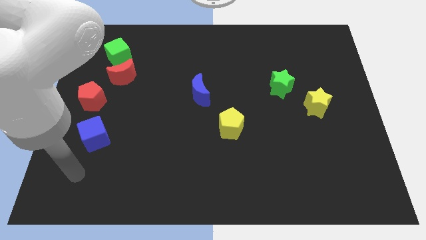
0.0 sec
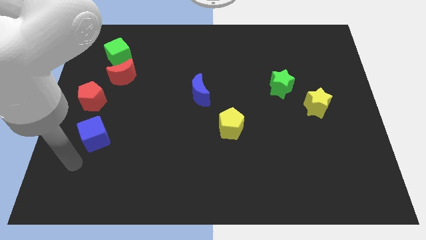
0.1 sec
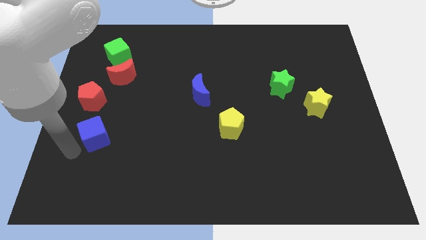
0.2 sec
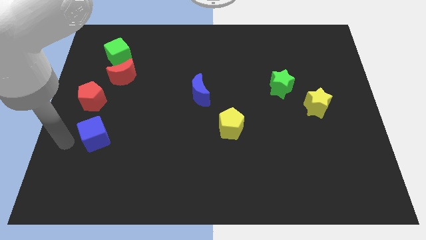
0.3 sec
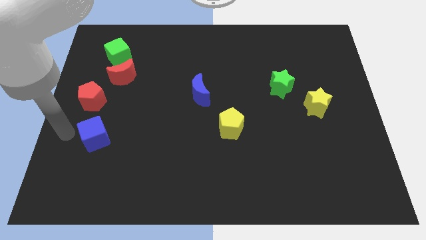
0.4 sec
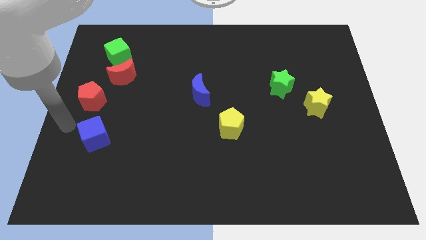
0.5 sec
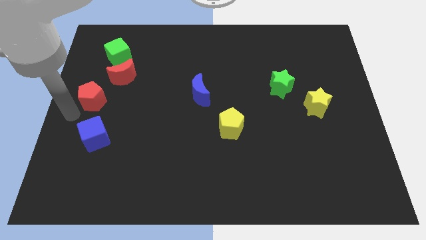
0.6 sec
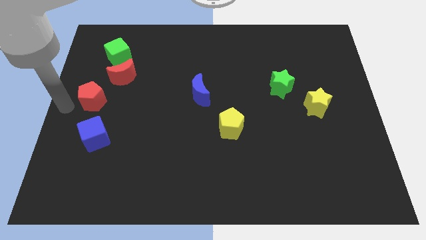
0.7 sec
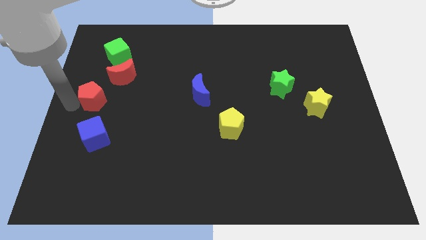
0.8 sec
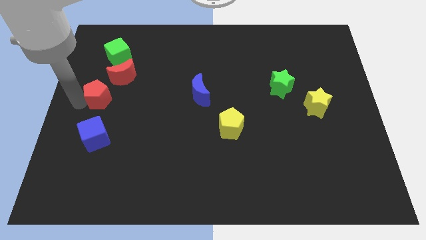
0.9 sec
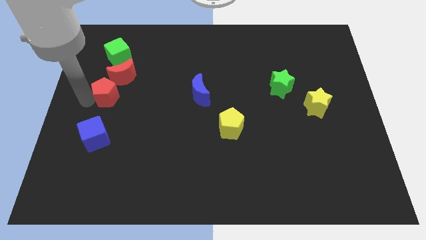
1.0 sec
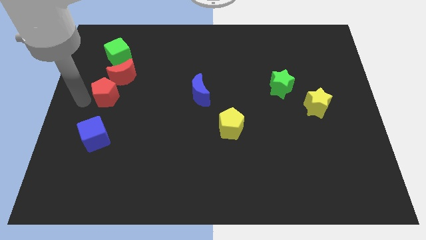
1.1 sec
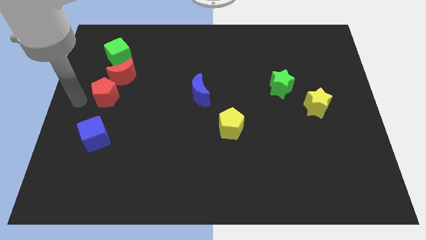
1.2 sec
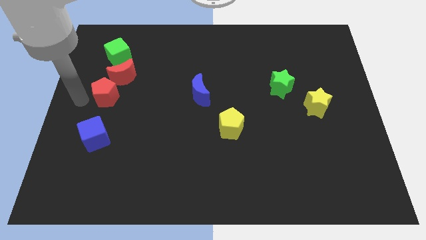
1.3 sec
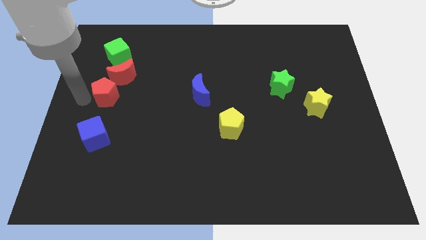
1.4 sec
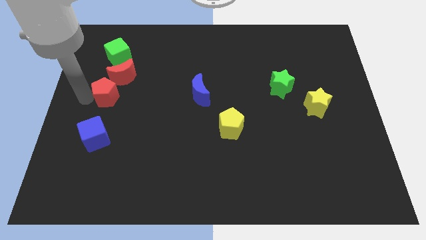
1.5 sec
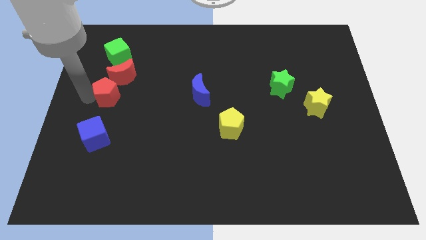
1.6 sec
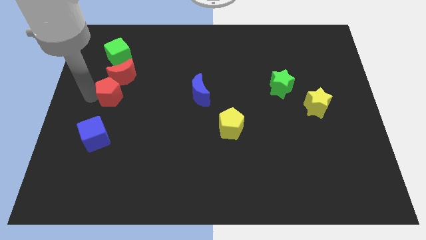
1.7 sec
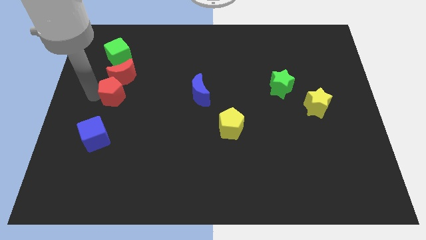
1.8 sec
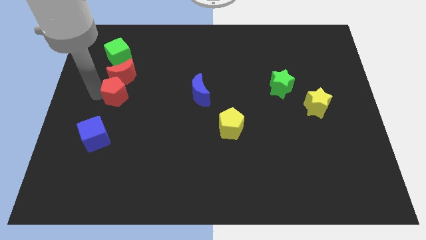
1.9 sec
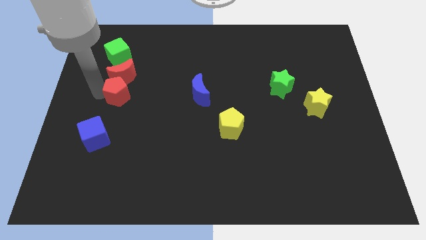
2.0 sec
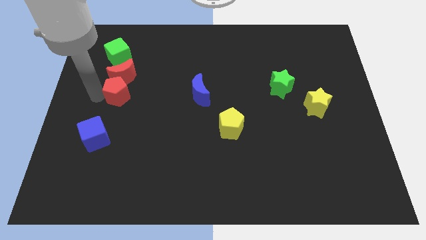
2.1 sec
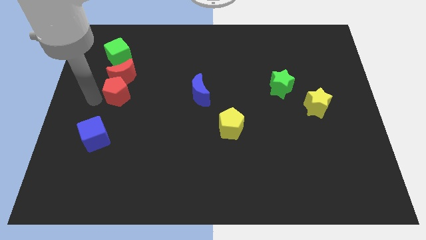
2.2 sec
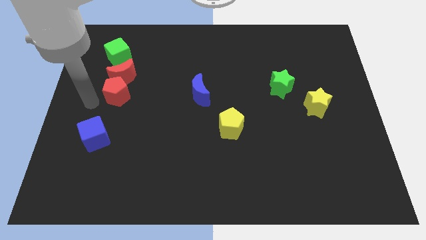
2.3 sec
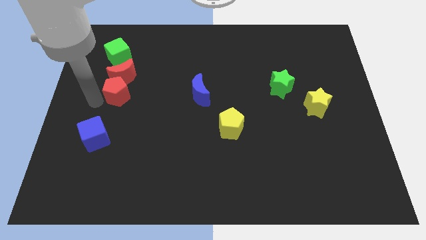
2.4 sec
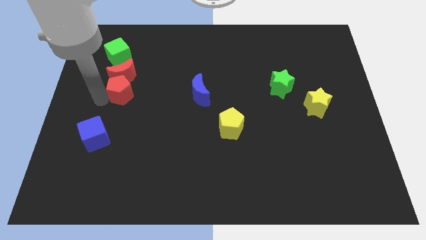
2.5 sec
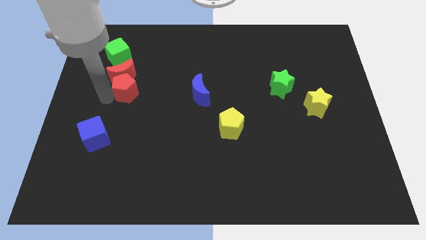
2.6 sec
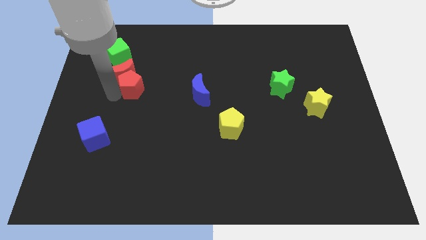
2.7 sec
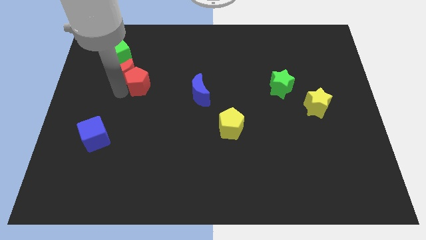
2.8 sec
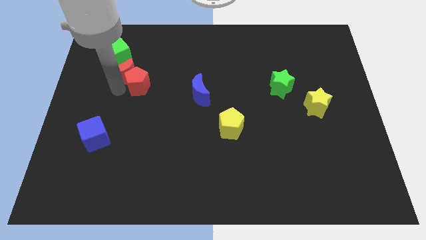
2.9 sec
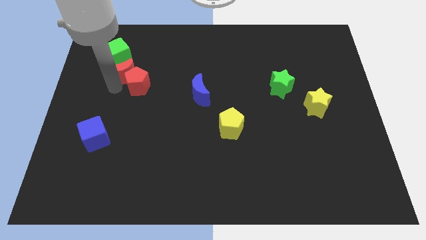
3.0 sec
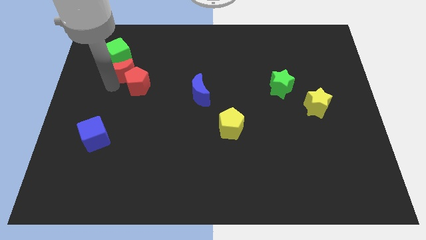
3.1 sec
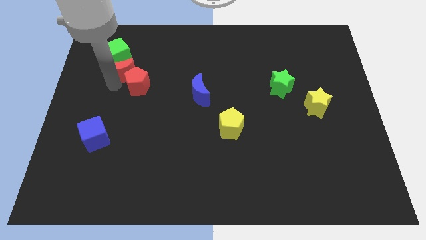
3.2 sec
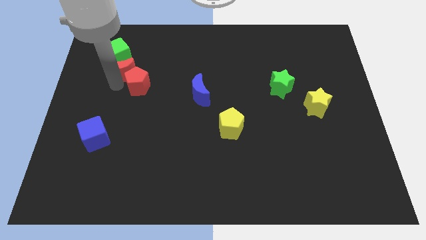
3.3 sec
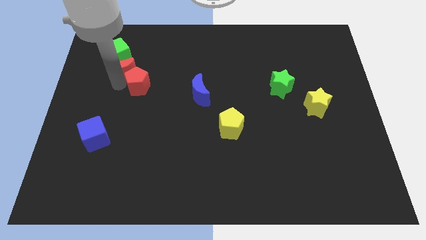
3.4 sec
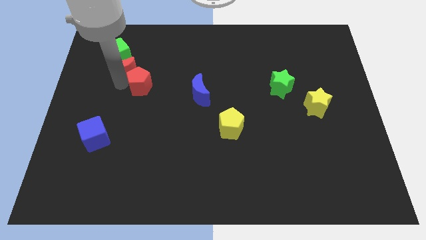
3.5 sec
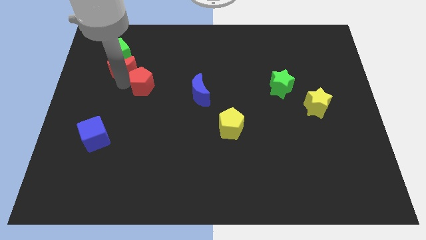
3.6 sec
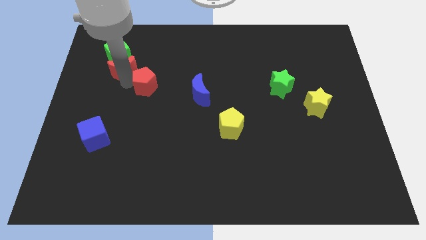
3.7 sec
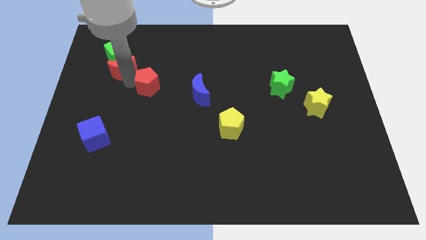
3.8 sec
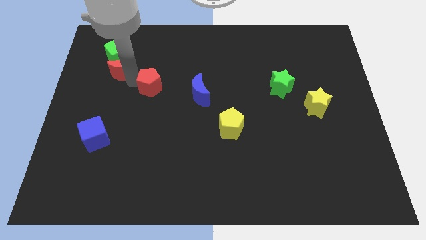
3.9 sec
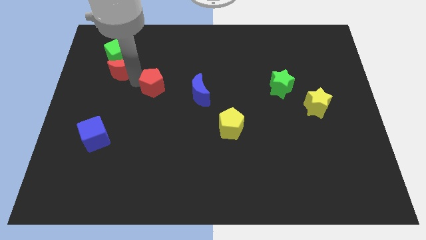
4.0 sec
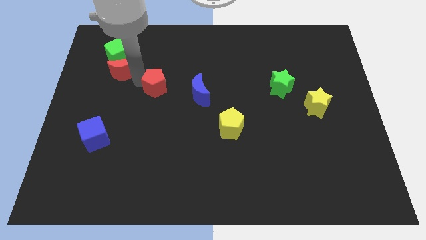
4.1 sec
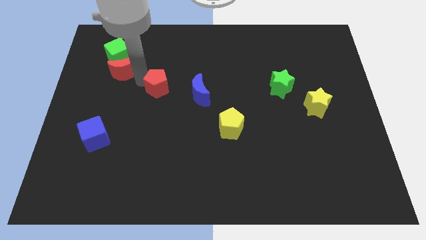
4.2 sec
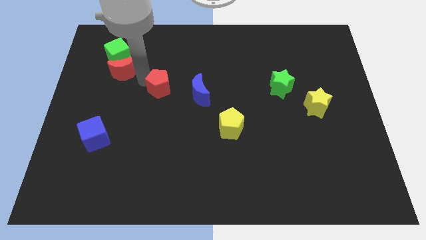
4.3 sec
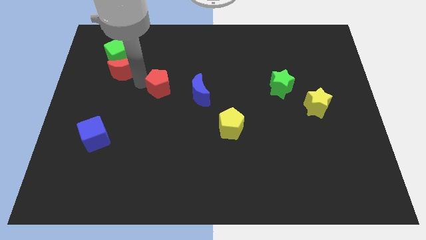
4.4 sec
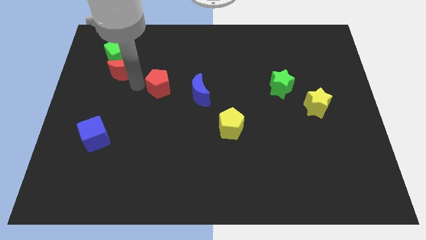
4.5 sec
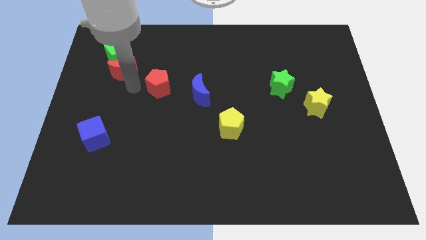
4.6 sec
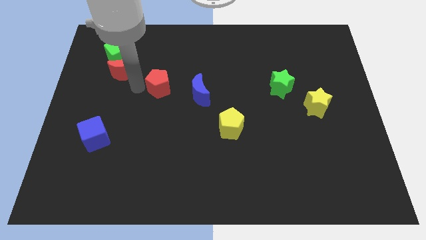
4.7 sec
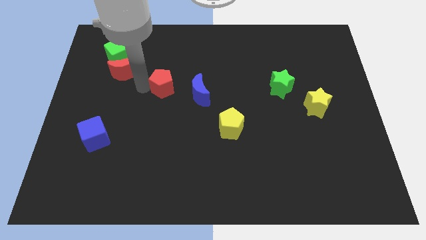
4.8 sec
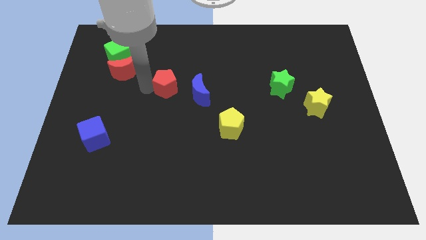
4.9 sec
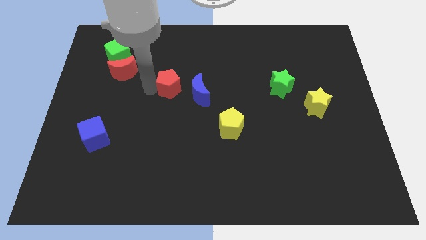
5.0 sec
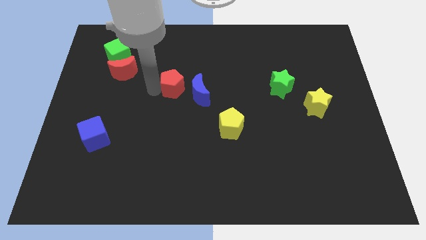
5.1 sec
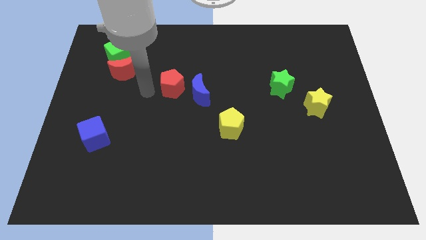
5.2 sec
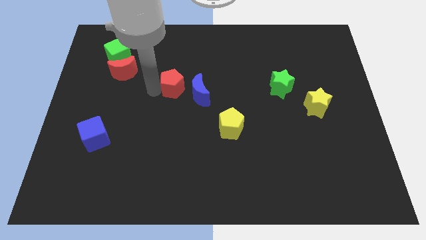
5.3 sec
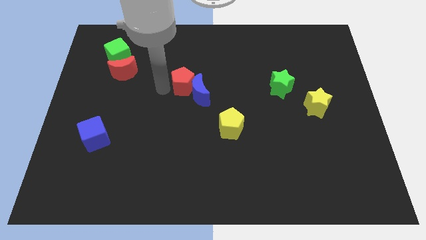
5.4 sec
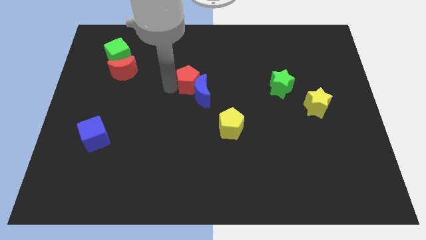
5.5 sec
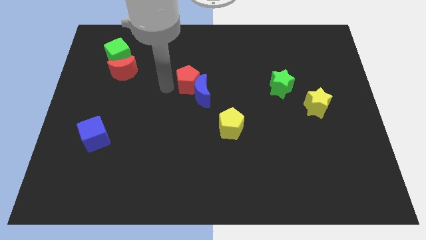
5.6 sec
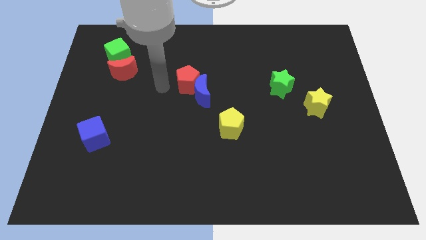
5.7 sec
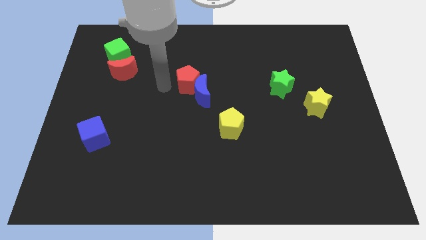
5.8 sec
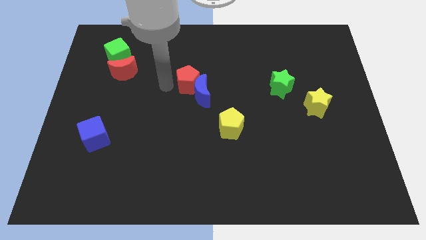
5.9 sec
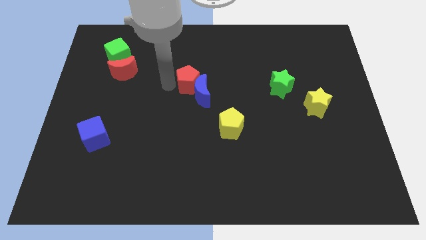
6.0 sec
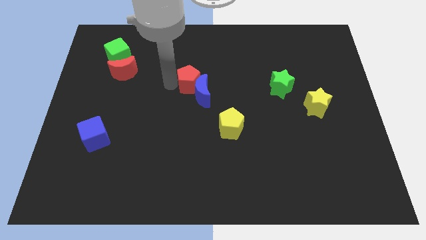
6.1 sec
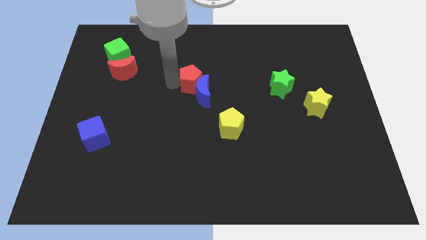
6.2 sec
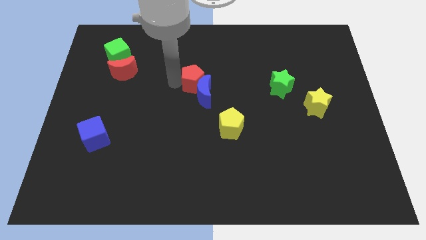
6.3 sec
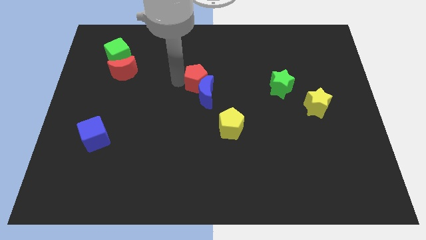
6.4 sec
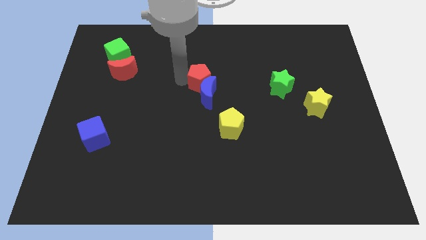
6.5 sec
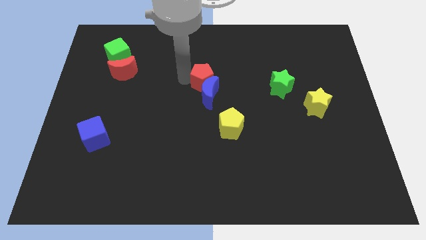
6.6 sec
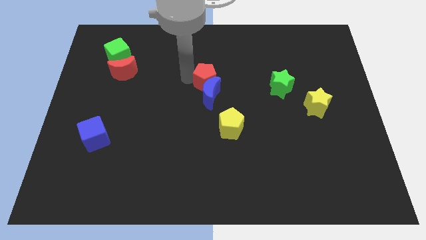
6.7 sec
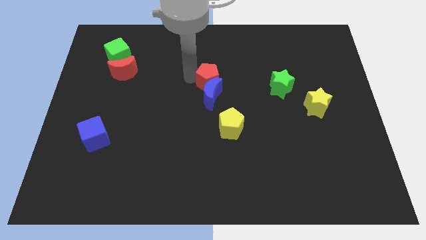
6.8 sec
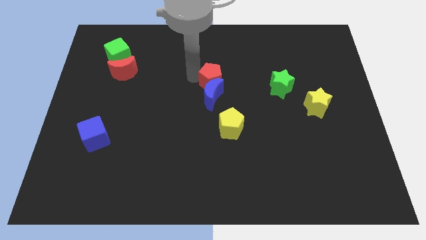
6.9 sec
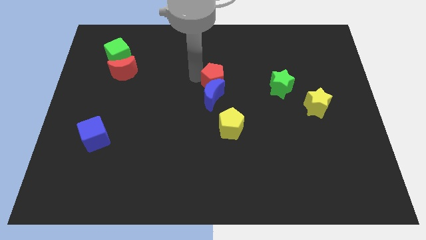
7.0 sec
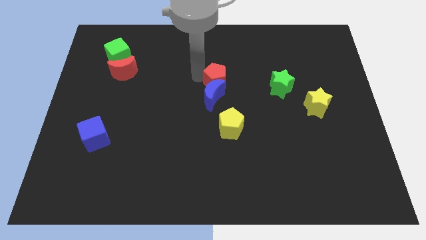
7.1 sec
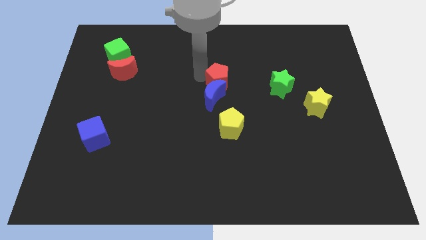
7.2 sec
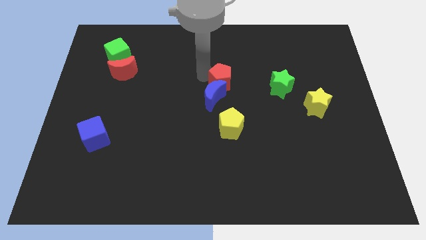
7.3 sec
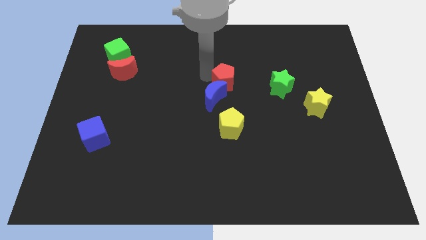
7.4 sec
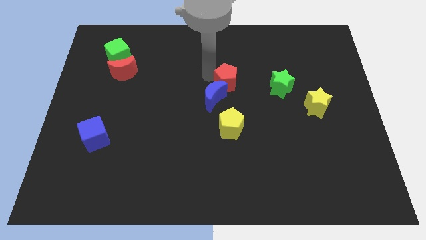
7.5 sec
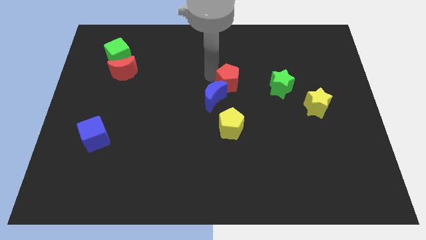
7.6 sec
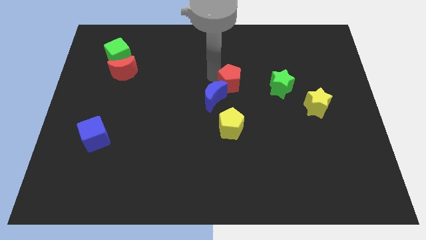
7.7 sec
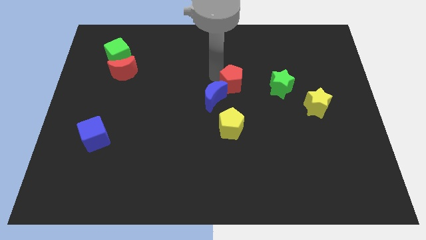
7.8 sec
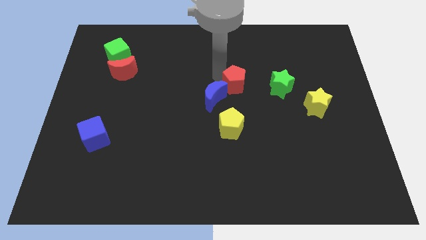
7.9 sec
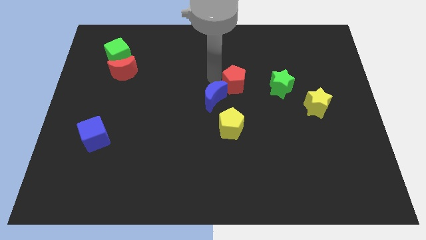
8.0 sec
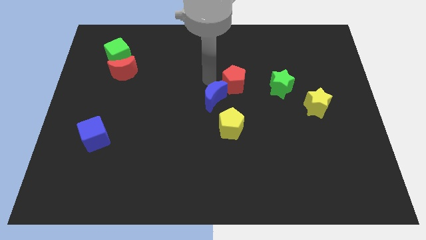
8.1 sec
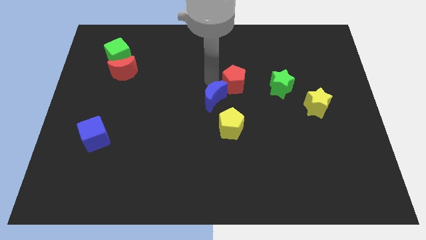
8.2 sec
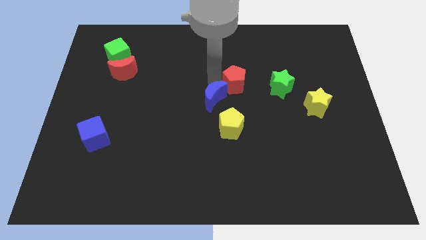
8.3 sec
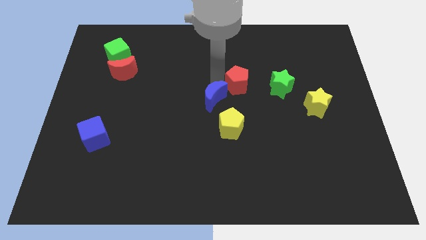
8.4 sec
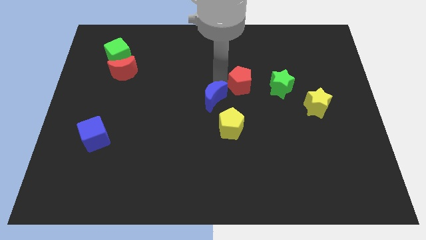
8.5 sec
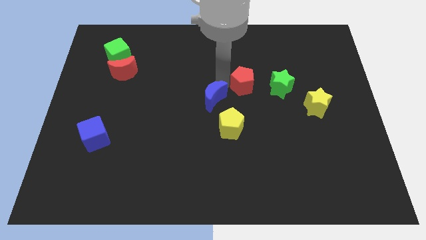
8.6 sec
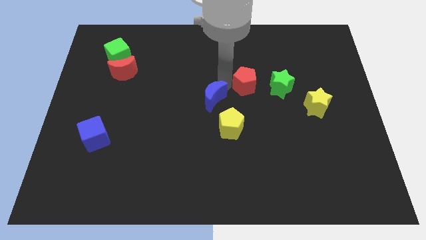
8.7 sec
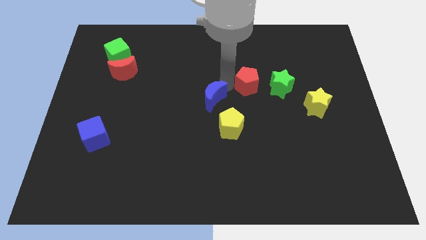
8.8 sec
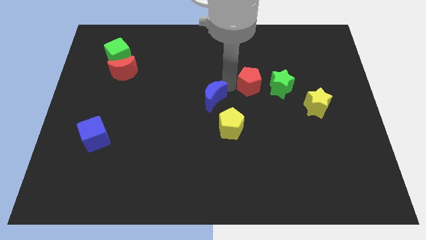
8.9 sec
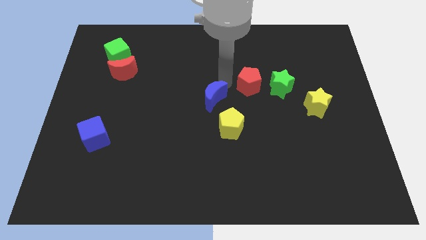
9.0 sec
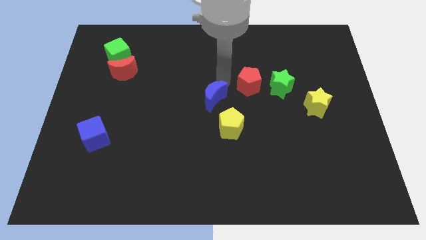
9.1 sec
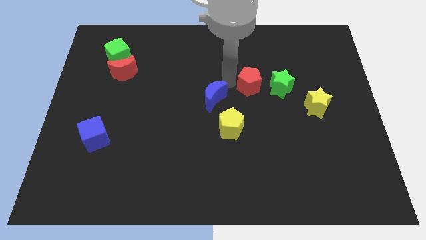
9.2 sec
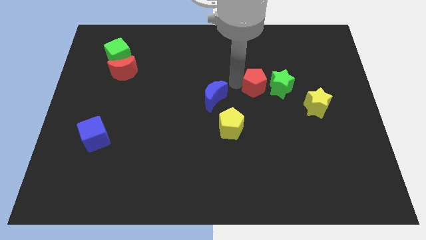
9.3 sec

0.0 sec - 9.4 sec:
put the red pentagon to the green star
